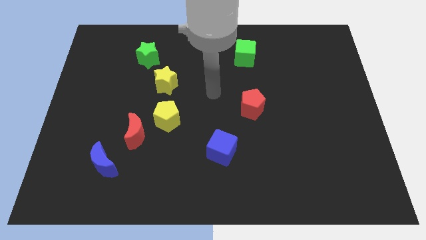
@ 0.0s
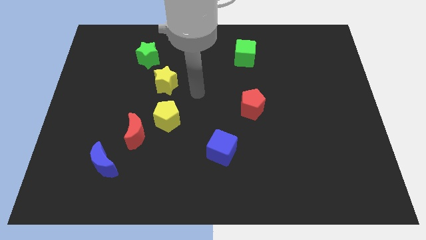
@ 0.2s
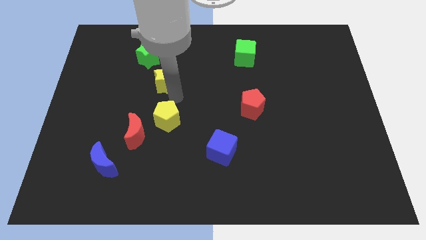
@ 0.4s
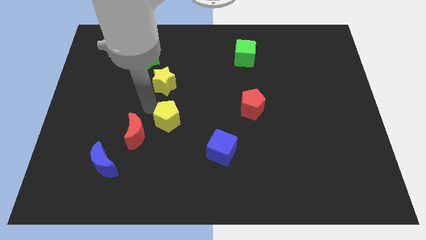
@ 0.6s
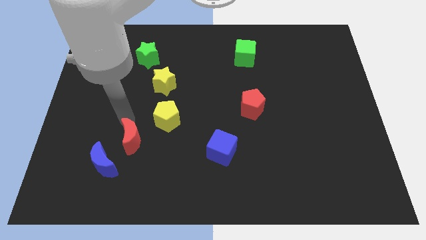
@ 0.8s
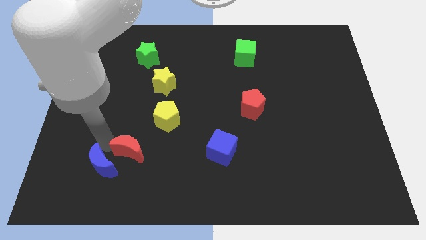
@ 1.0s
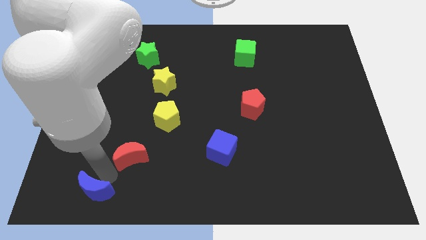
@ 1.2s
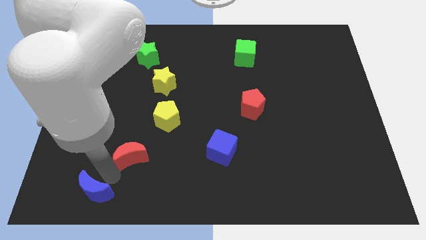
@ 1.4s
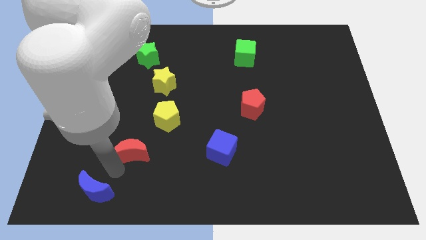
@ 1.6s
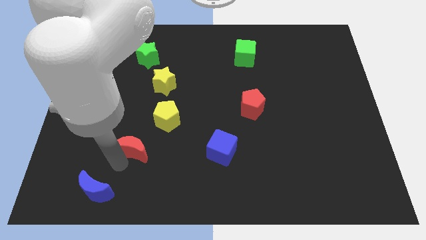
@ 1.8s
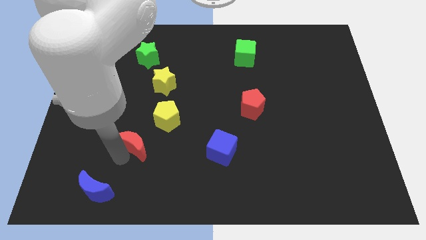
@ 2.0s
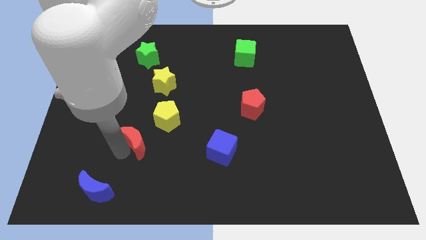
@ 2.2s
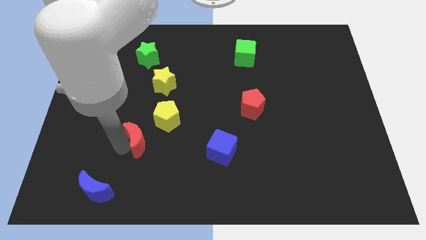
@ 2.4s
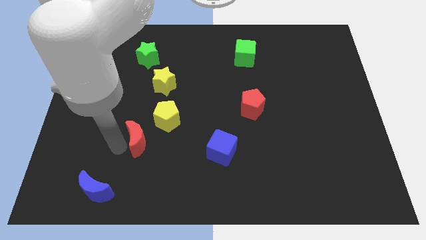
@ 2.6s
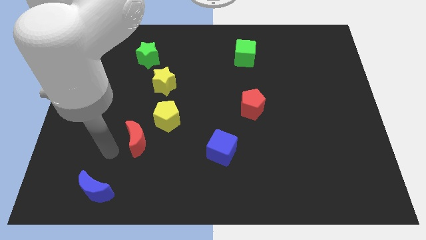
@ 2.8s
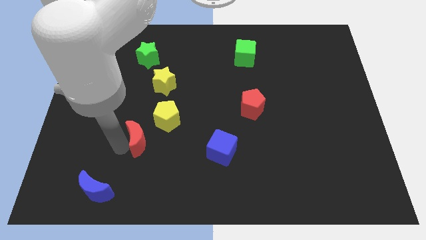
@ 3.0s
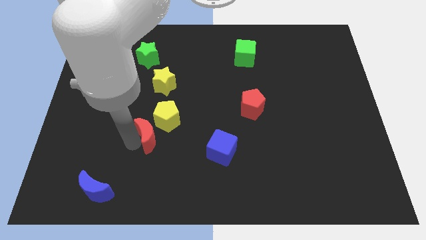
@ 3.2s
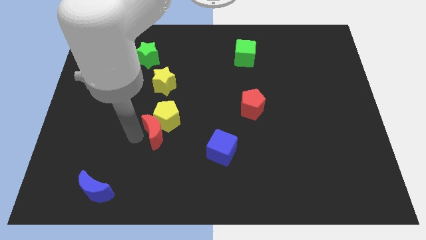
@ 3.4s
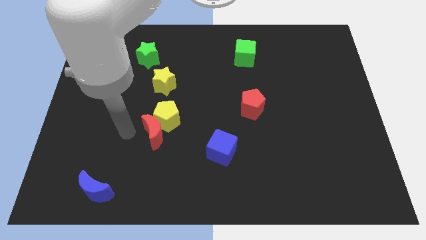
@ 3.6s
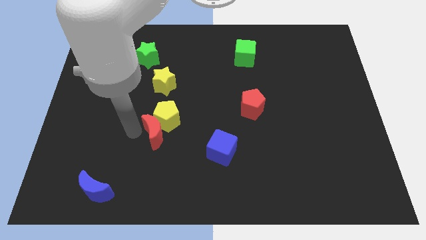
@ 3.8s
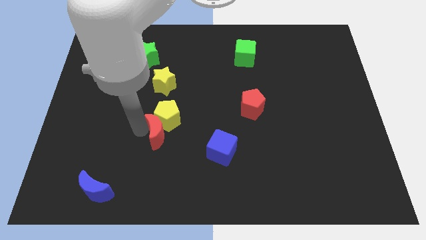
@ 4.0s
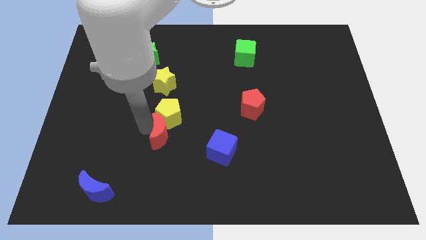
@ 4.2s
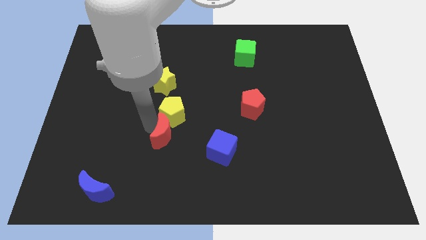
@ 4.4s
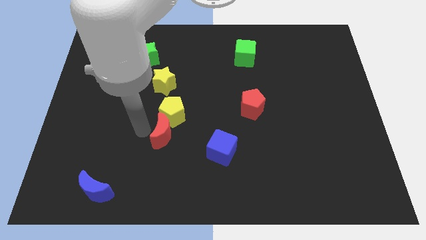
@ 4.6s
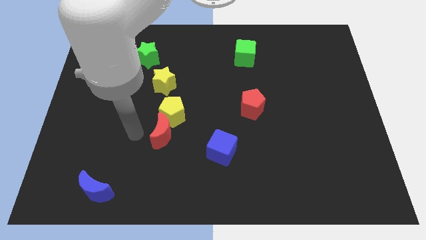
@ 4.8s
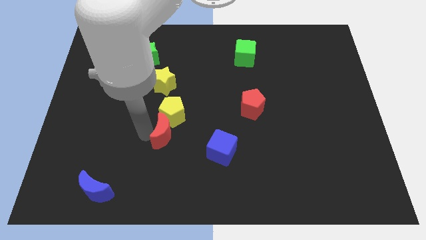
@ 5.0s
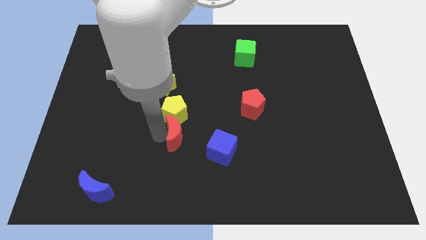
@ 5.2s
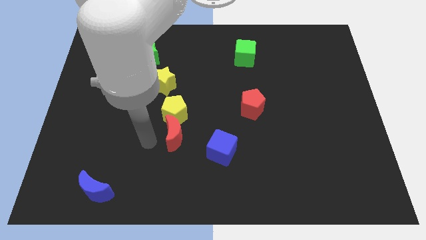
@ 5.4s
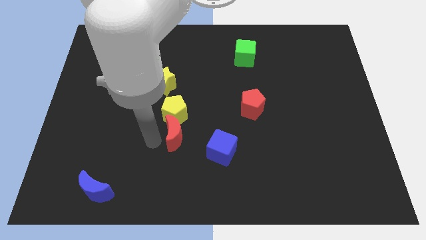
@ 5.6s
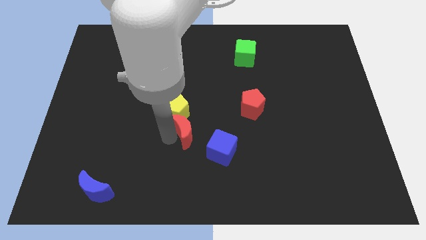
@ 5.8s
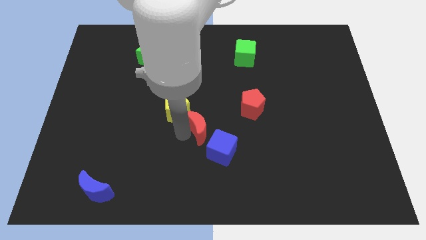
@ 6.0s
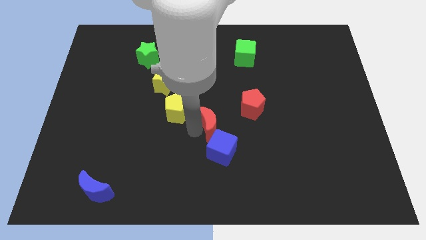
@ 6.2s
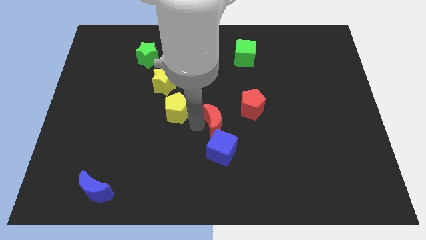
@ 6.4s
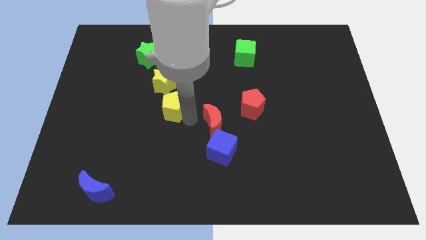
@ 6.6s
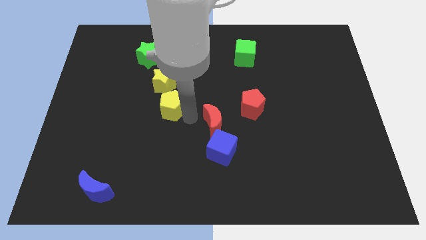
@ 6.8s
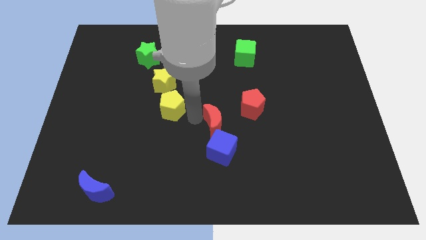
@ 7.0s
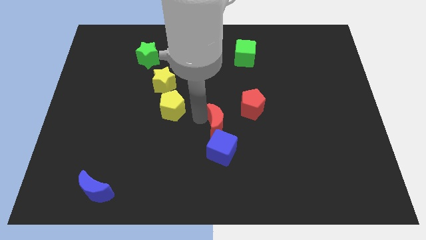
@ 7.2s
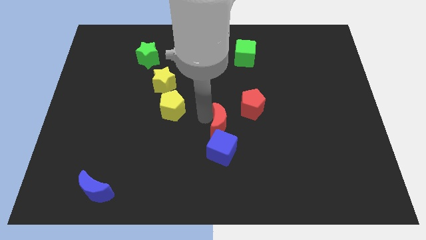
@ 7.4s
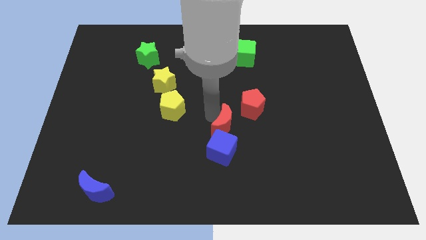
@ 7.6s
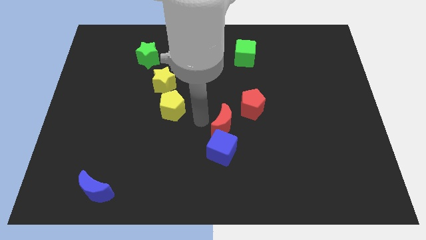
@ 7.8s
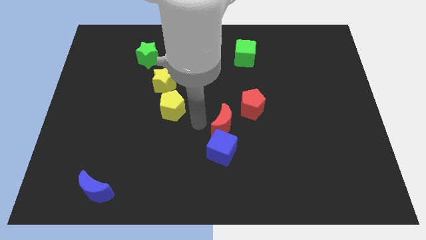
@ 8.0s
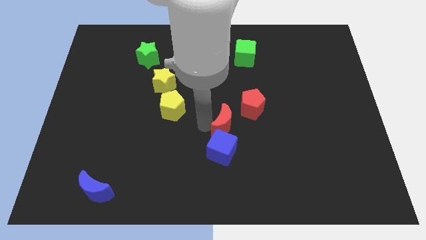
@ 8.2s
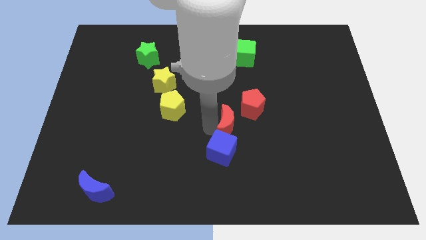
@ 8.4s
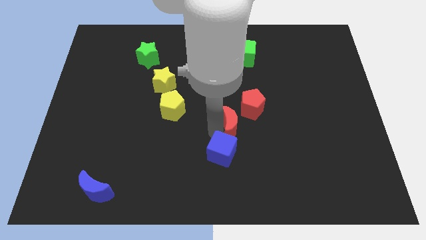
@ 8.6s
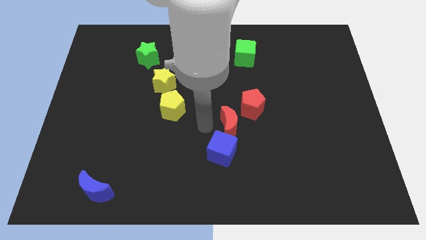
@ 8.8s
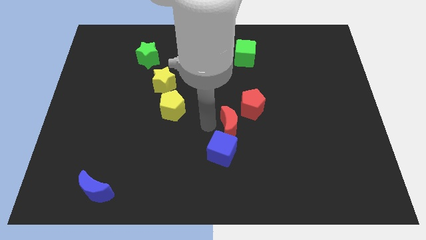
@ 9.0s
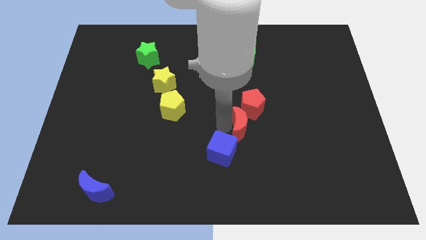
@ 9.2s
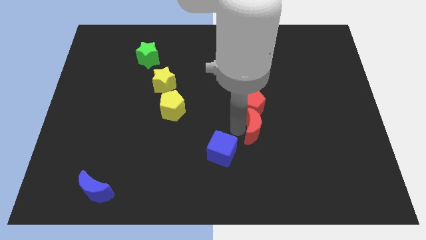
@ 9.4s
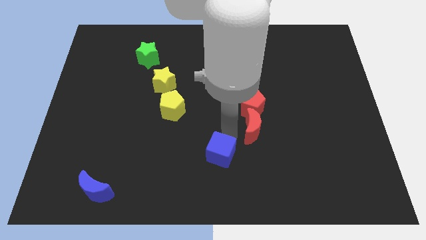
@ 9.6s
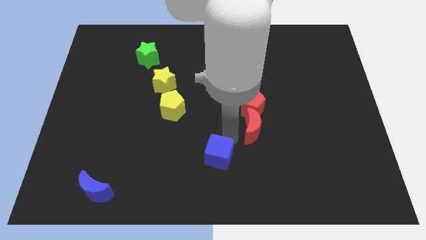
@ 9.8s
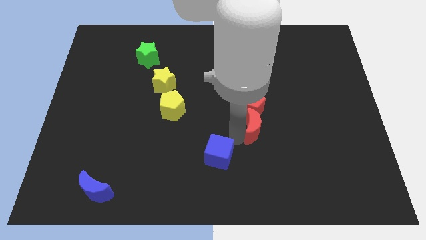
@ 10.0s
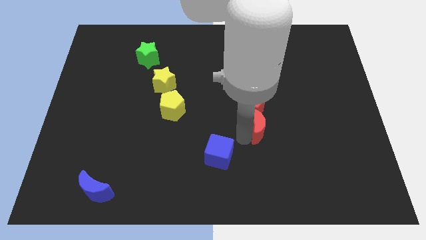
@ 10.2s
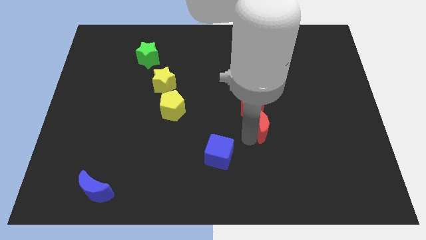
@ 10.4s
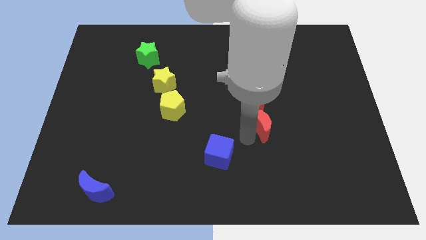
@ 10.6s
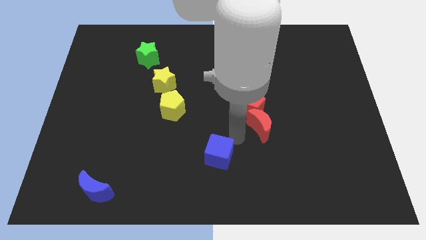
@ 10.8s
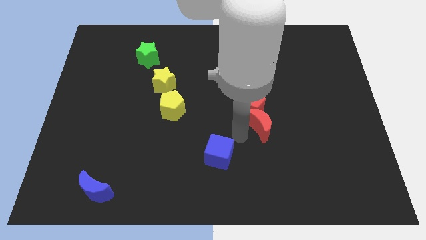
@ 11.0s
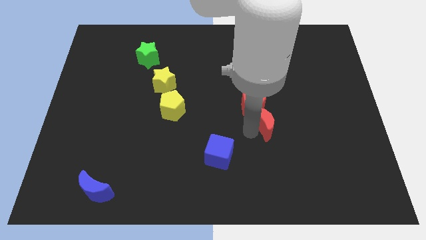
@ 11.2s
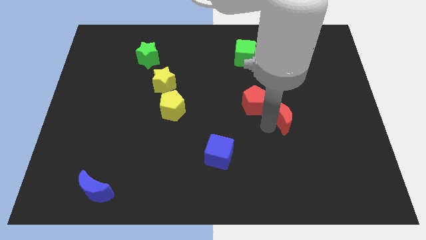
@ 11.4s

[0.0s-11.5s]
move the red moon just right of the red pentagon

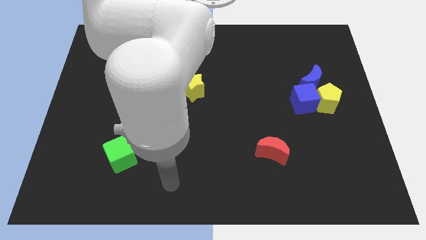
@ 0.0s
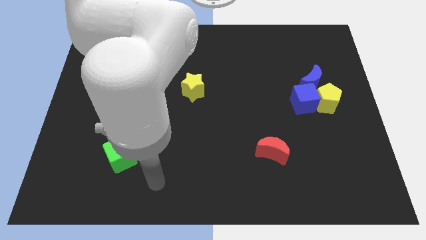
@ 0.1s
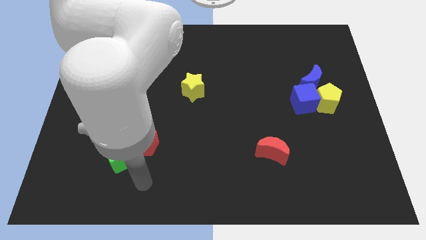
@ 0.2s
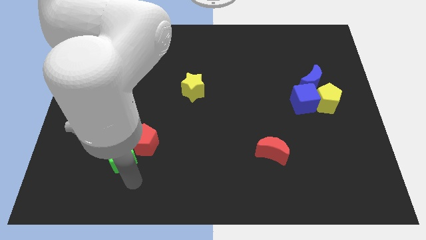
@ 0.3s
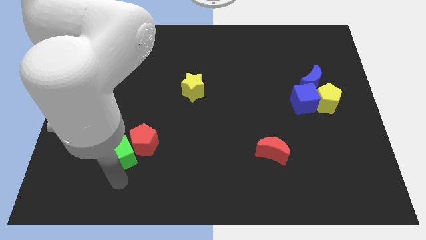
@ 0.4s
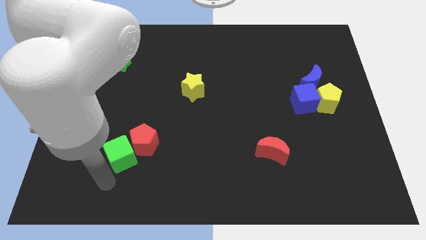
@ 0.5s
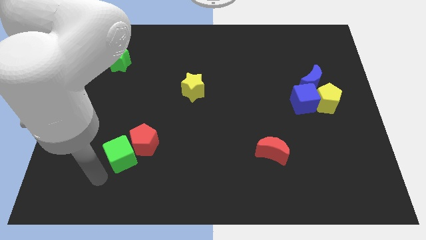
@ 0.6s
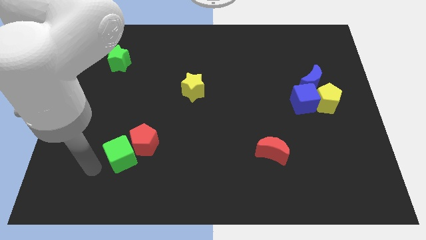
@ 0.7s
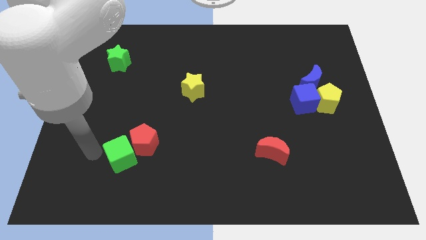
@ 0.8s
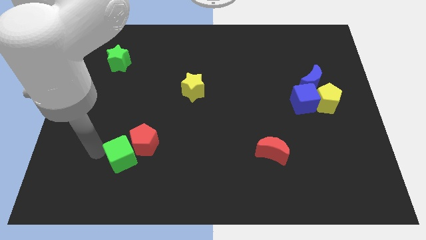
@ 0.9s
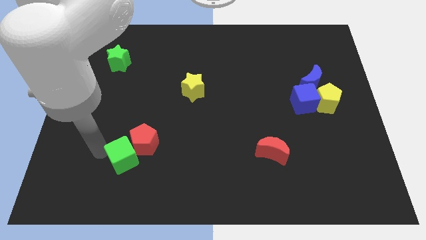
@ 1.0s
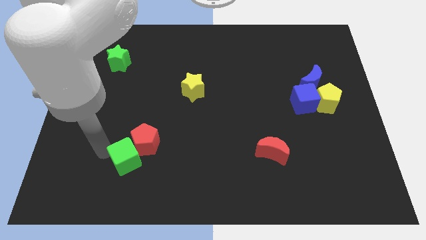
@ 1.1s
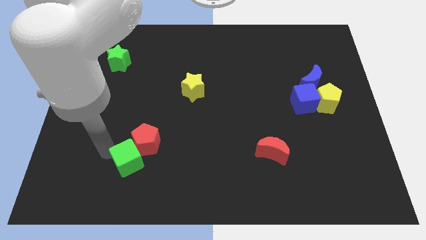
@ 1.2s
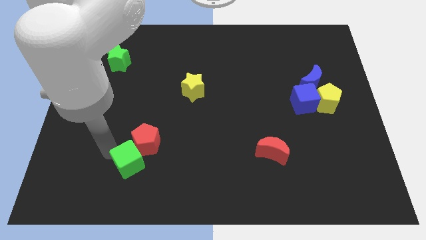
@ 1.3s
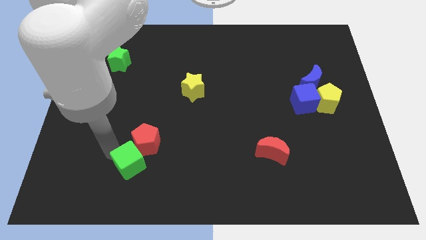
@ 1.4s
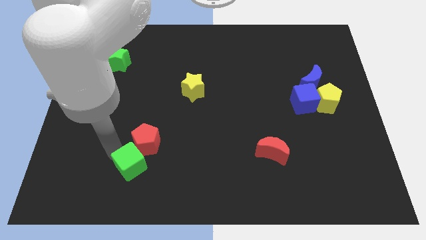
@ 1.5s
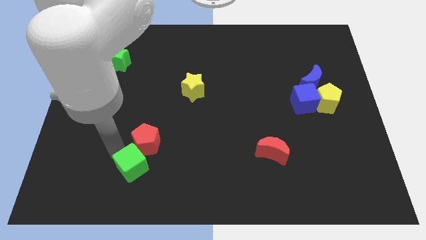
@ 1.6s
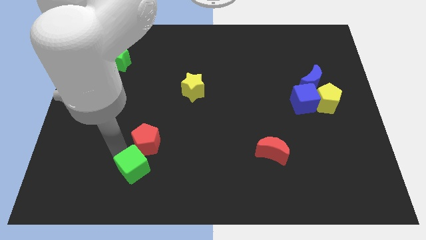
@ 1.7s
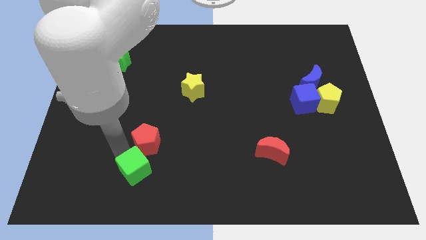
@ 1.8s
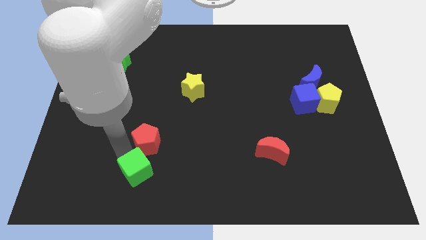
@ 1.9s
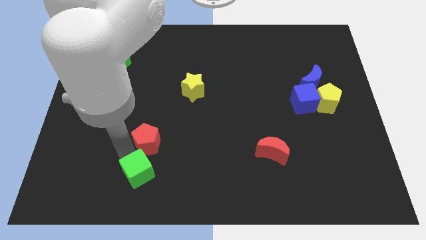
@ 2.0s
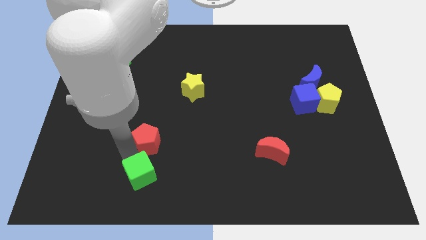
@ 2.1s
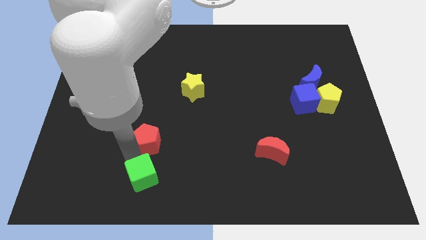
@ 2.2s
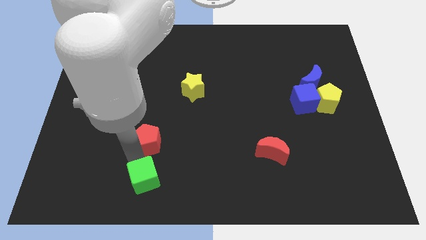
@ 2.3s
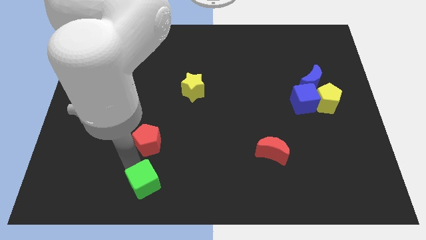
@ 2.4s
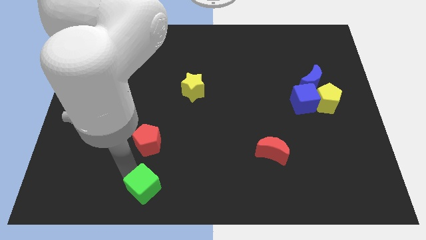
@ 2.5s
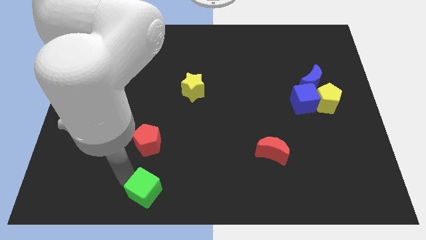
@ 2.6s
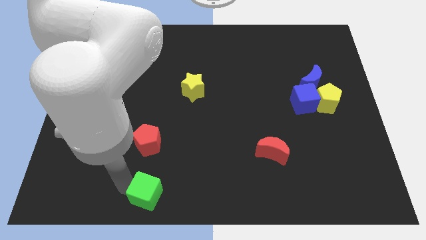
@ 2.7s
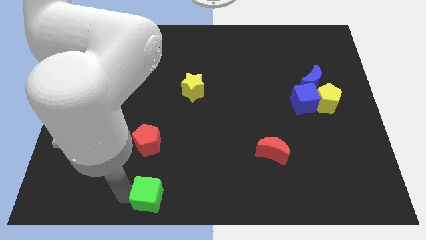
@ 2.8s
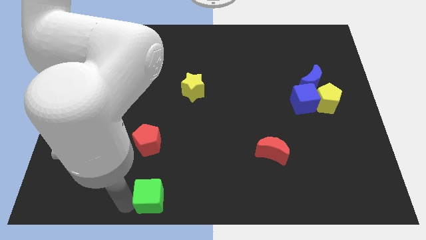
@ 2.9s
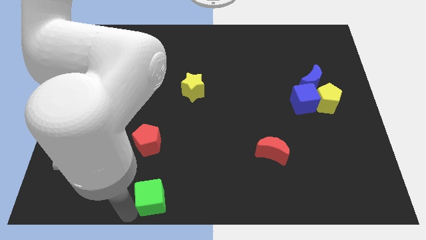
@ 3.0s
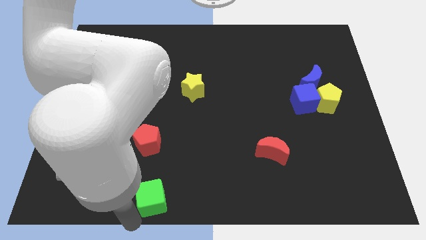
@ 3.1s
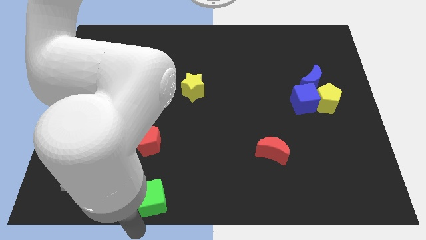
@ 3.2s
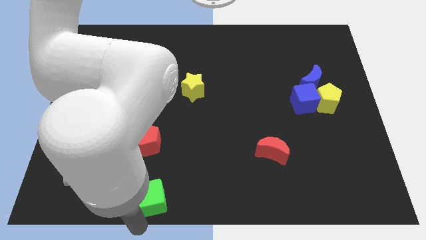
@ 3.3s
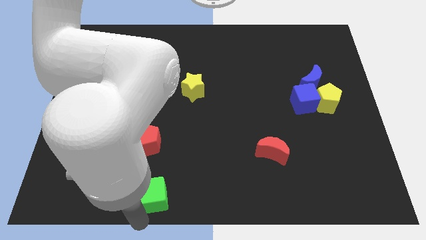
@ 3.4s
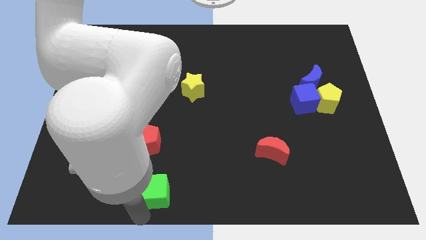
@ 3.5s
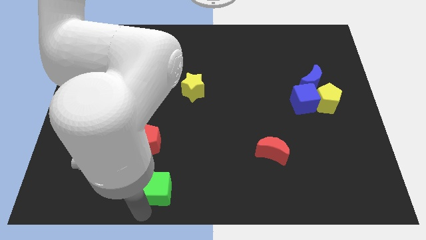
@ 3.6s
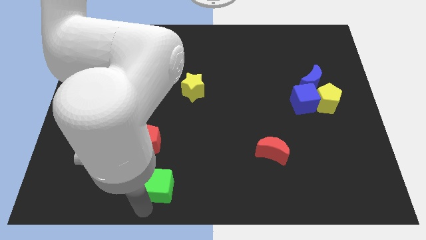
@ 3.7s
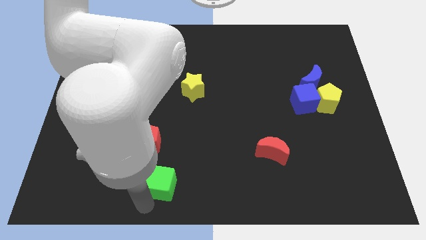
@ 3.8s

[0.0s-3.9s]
put the green cube to the bottom right of the red pentagon
